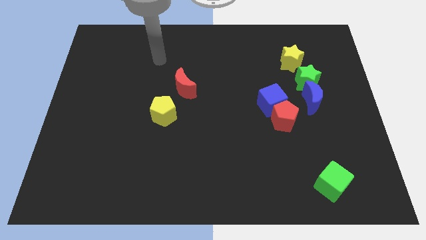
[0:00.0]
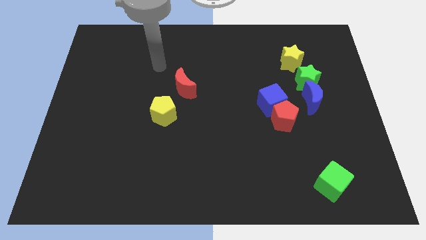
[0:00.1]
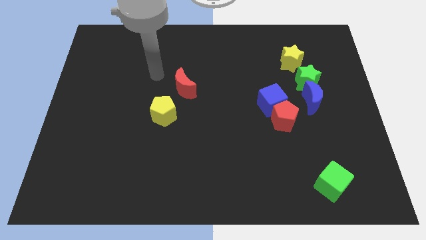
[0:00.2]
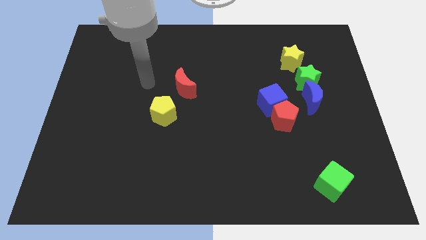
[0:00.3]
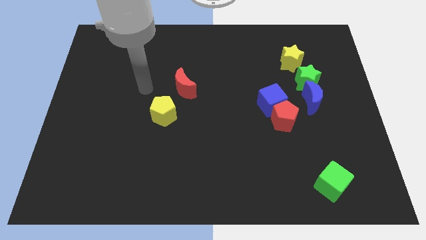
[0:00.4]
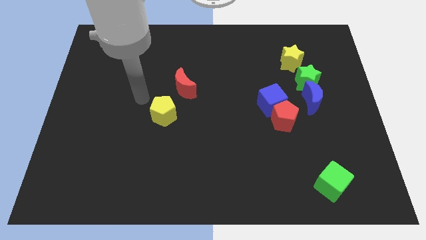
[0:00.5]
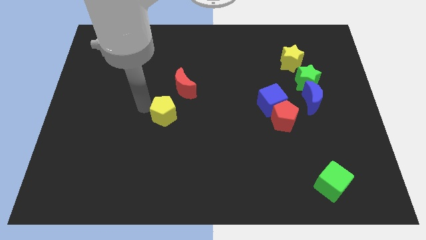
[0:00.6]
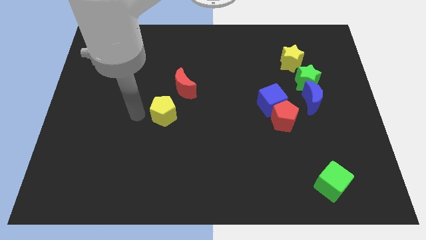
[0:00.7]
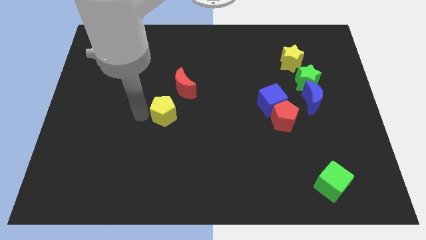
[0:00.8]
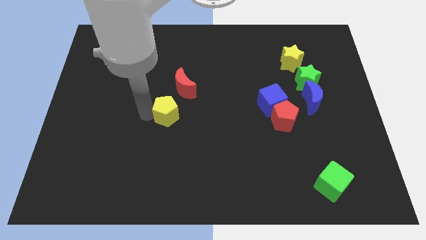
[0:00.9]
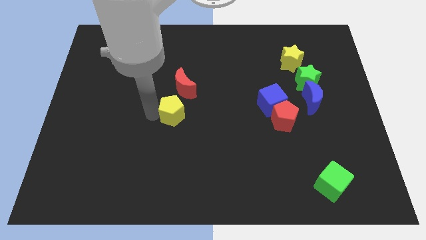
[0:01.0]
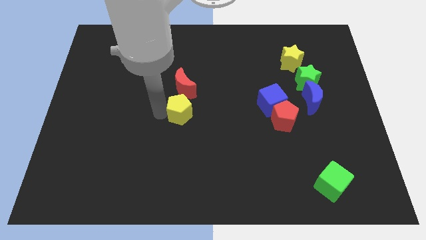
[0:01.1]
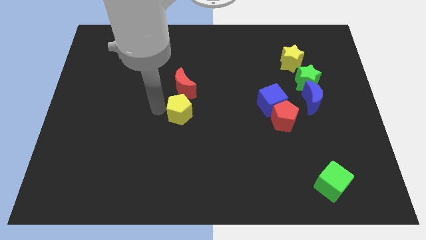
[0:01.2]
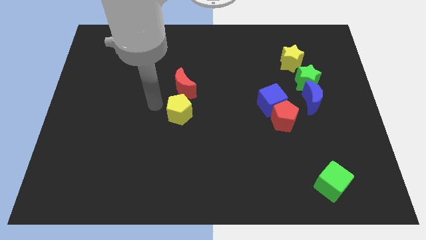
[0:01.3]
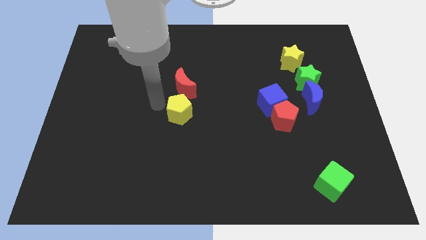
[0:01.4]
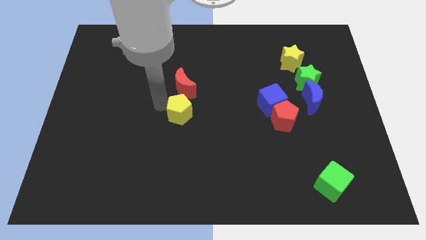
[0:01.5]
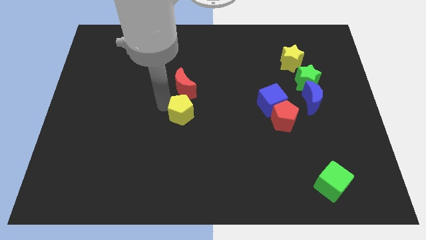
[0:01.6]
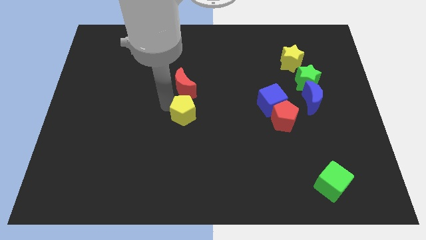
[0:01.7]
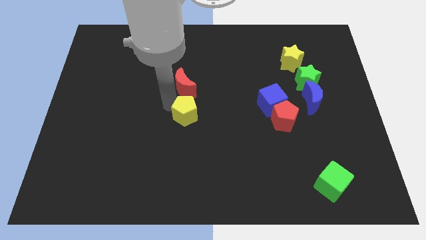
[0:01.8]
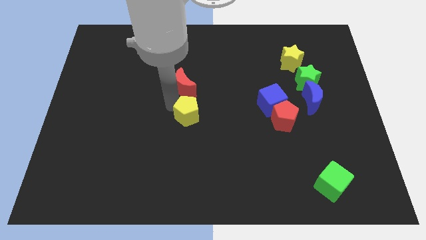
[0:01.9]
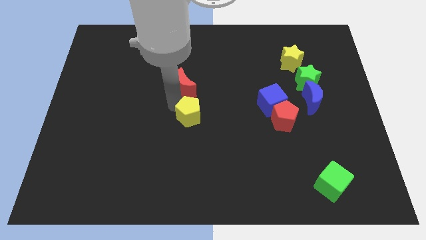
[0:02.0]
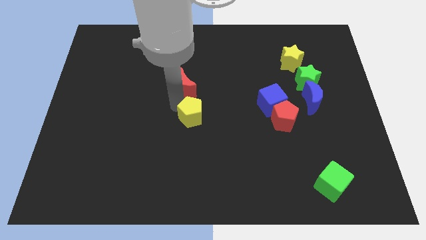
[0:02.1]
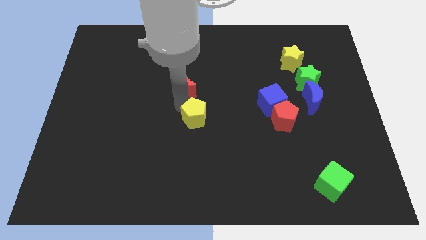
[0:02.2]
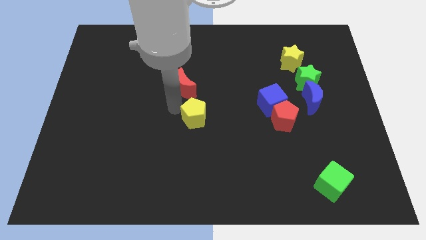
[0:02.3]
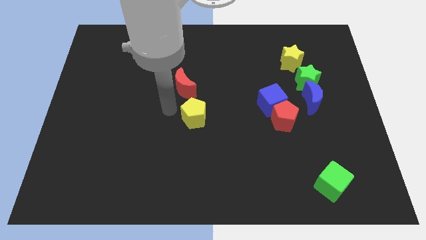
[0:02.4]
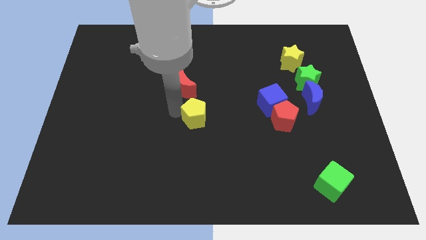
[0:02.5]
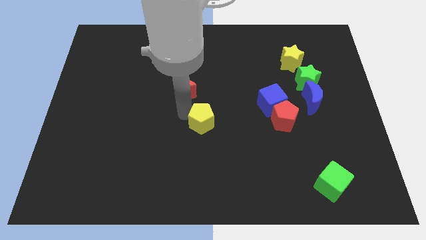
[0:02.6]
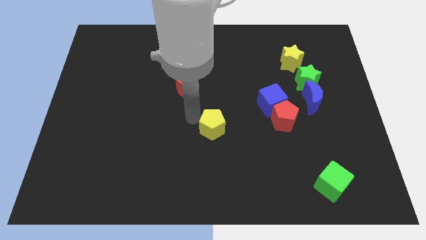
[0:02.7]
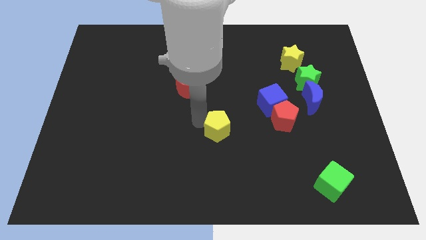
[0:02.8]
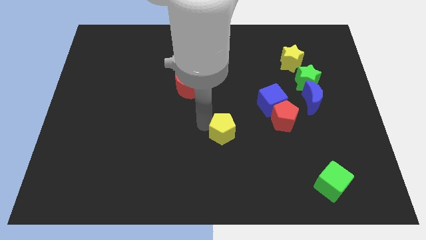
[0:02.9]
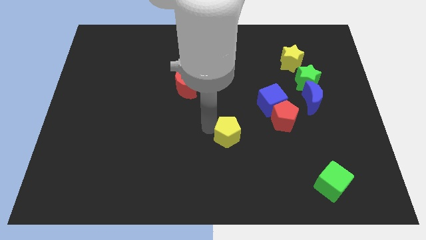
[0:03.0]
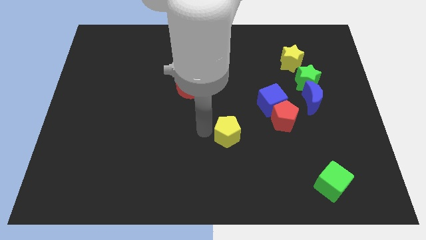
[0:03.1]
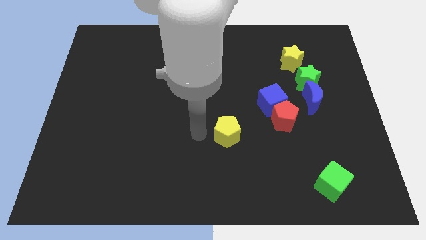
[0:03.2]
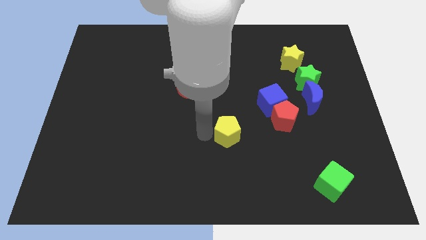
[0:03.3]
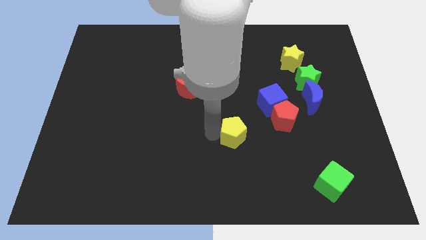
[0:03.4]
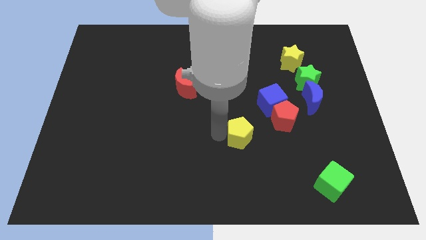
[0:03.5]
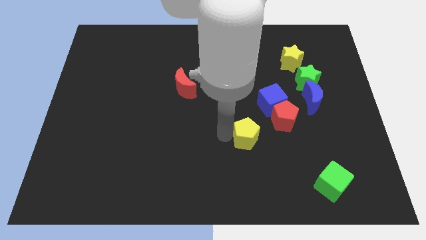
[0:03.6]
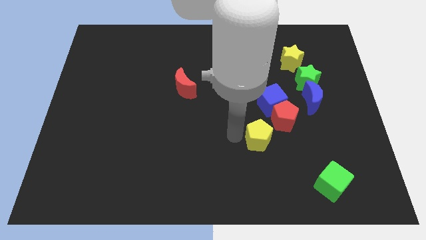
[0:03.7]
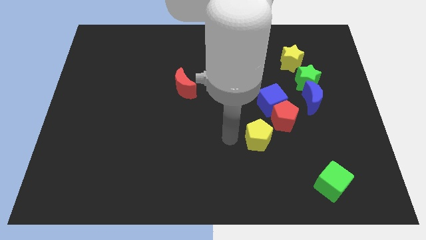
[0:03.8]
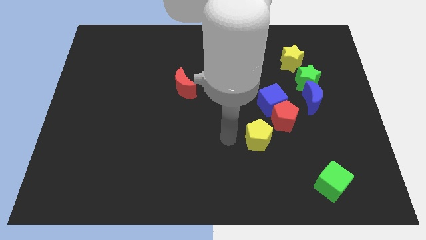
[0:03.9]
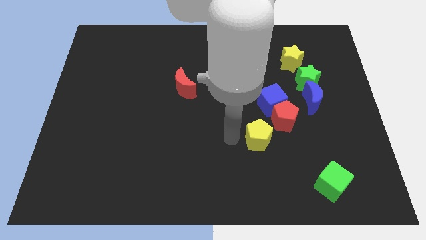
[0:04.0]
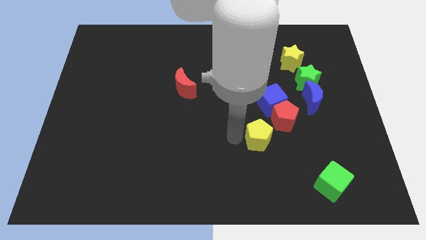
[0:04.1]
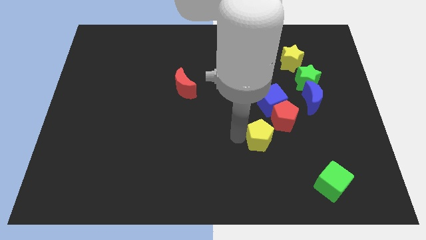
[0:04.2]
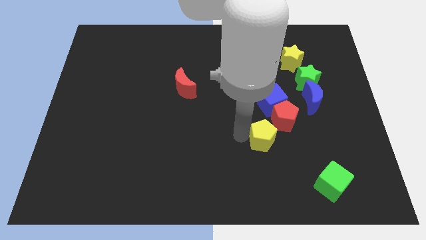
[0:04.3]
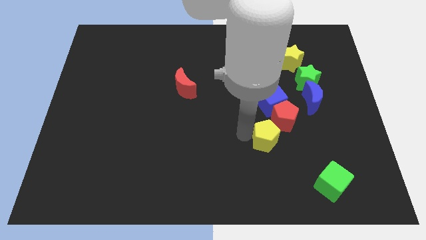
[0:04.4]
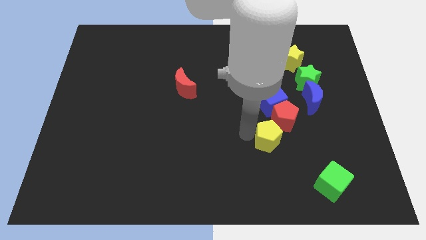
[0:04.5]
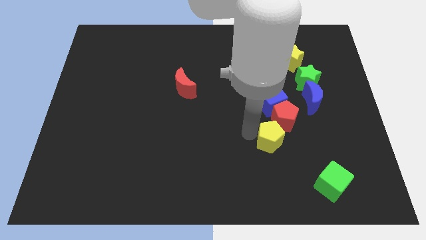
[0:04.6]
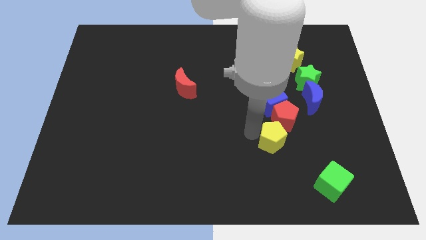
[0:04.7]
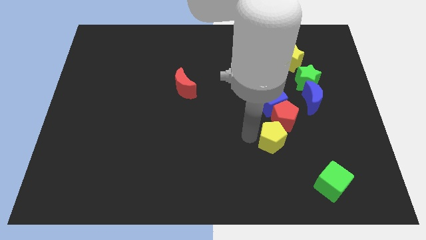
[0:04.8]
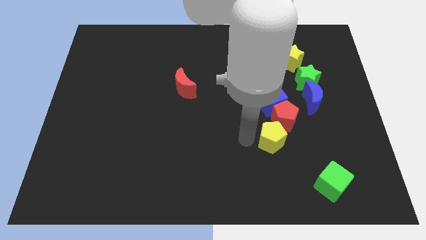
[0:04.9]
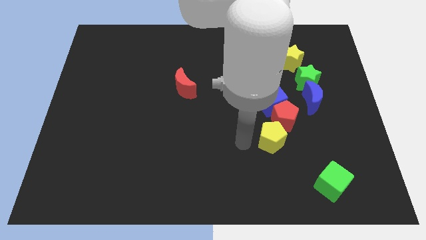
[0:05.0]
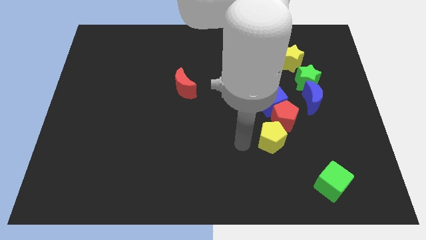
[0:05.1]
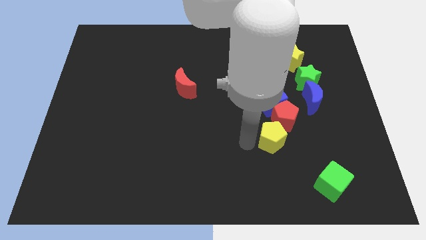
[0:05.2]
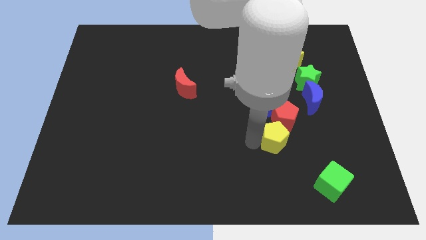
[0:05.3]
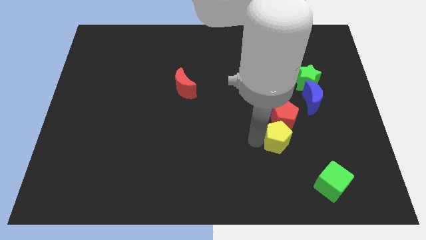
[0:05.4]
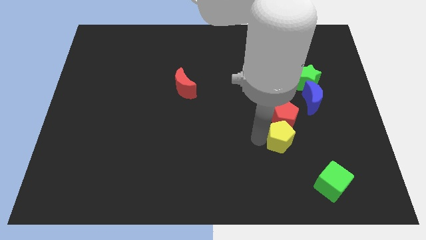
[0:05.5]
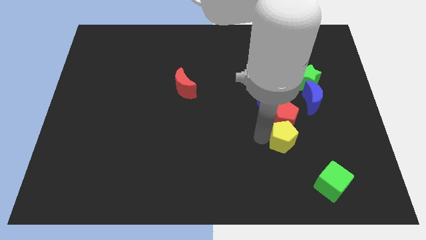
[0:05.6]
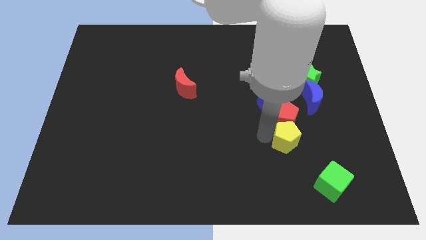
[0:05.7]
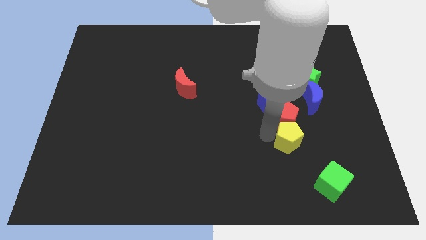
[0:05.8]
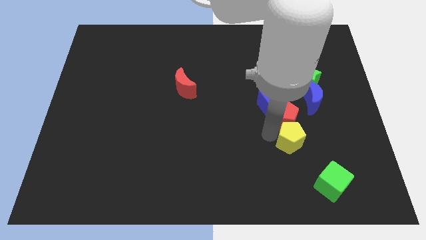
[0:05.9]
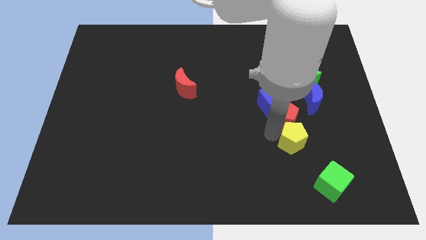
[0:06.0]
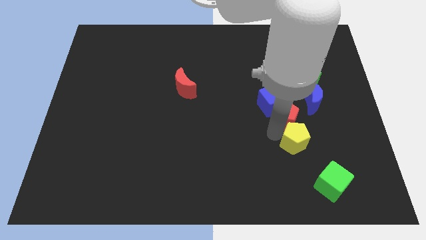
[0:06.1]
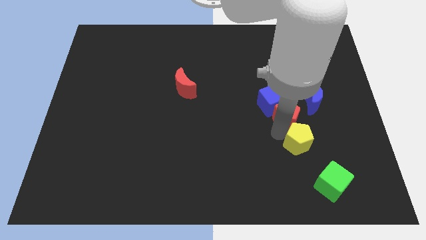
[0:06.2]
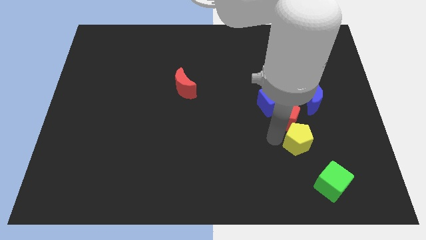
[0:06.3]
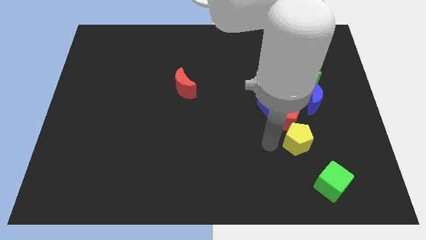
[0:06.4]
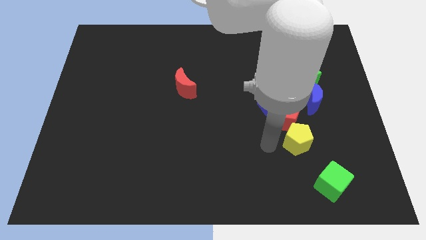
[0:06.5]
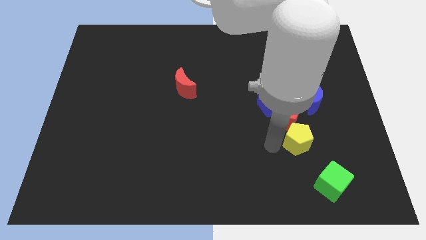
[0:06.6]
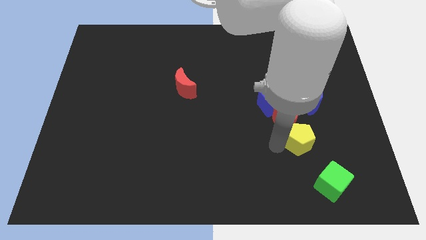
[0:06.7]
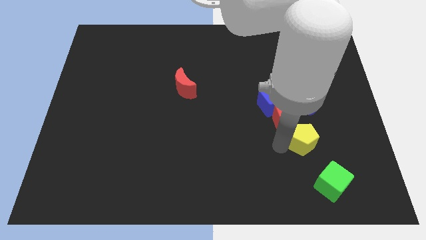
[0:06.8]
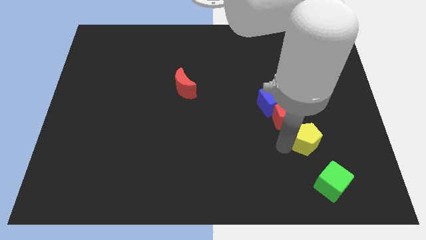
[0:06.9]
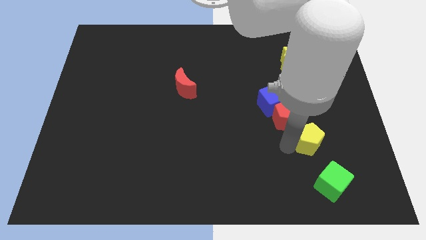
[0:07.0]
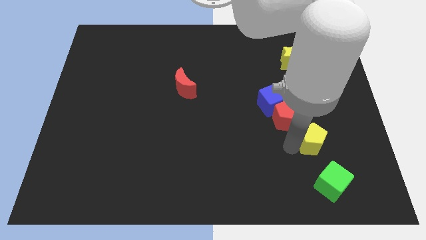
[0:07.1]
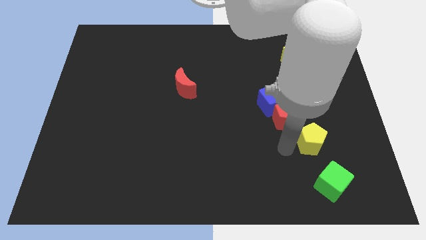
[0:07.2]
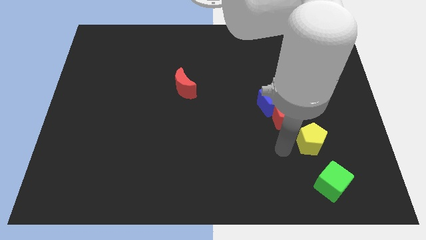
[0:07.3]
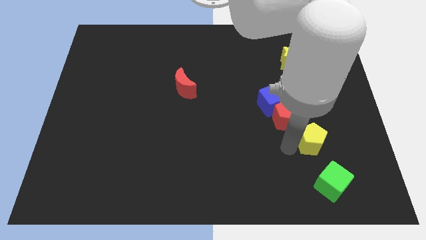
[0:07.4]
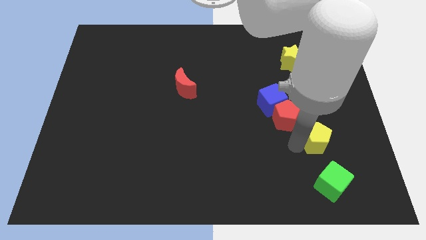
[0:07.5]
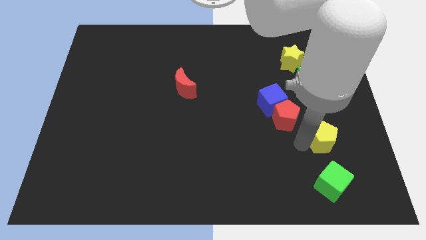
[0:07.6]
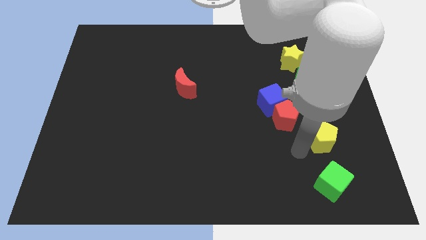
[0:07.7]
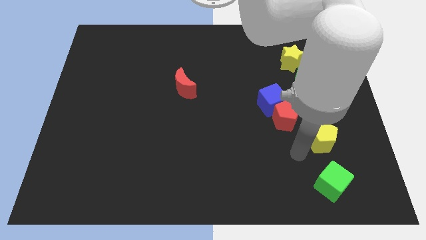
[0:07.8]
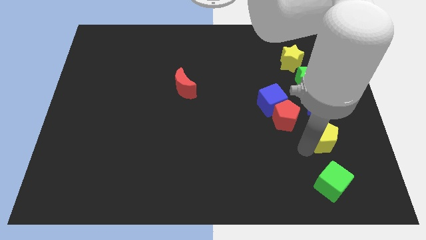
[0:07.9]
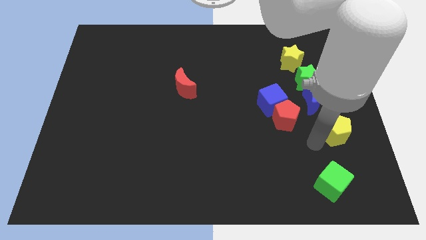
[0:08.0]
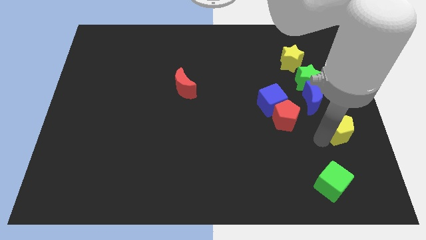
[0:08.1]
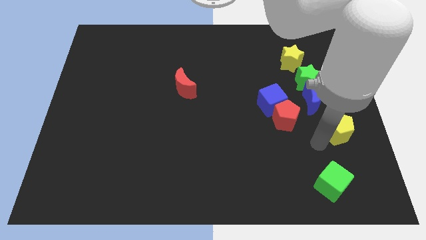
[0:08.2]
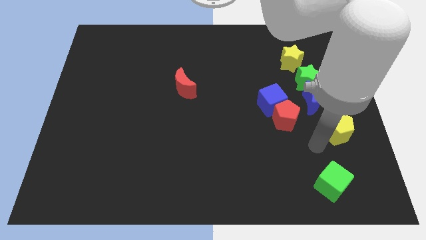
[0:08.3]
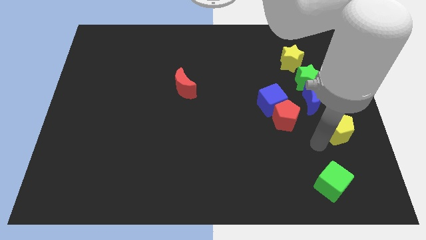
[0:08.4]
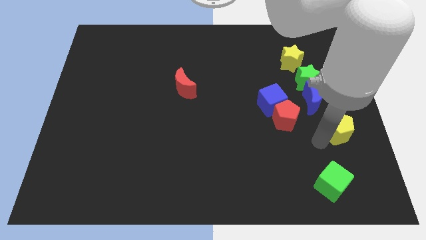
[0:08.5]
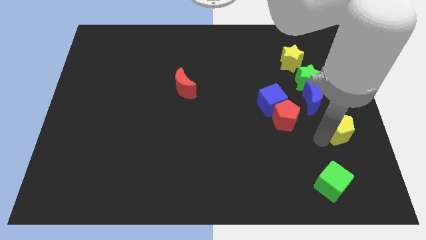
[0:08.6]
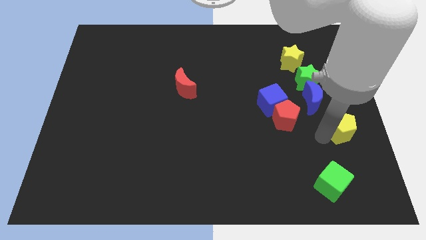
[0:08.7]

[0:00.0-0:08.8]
put the yellow pentagon to the right side
